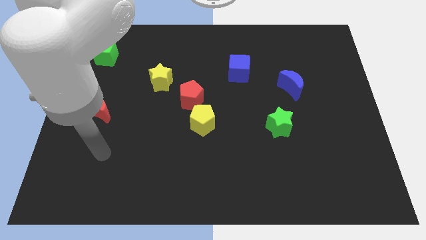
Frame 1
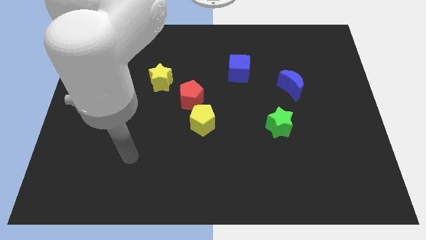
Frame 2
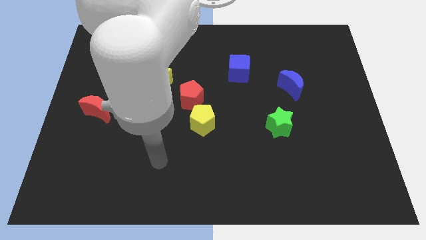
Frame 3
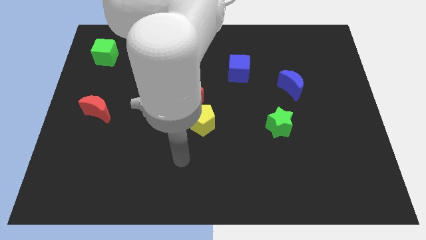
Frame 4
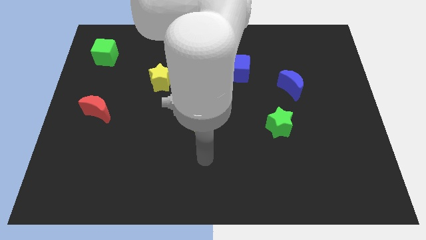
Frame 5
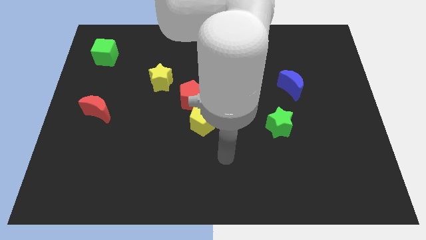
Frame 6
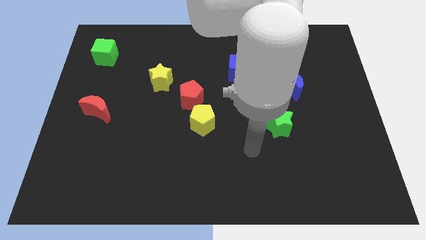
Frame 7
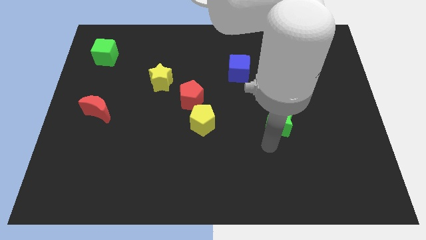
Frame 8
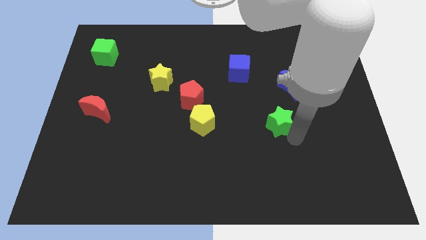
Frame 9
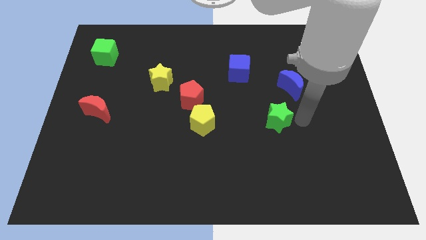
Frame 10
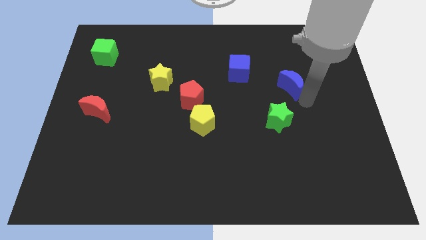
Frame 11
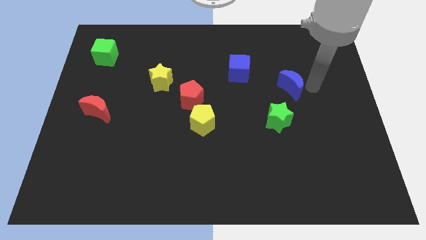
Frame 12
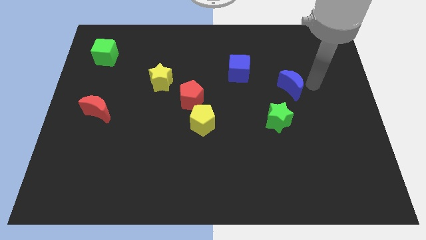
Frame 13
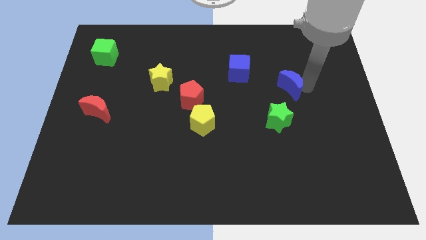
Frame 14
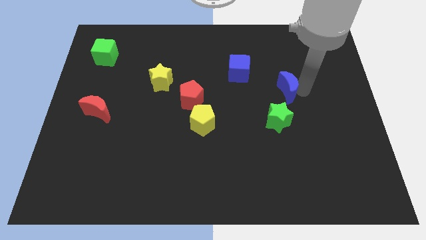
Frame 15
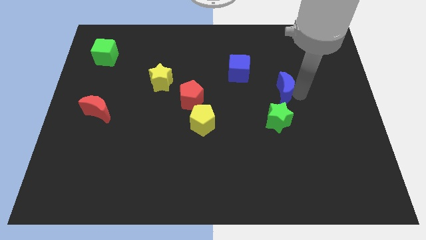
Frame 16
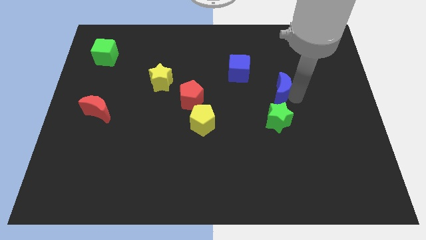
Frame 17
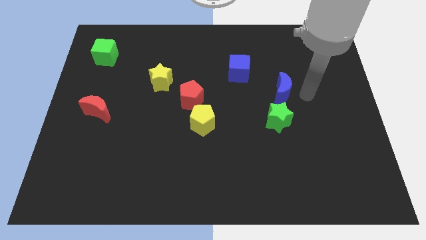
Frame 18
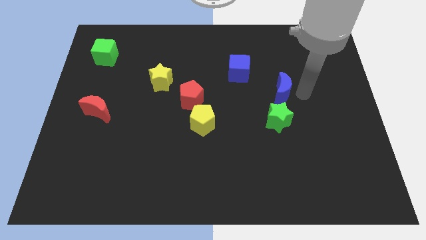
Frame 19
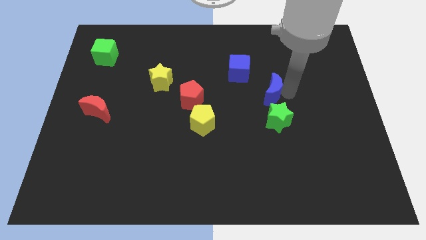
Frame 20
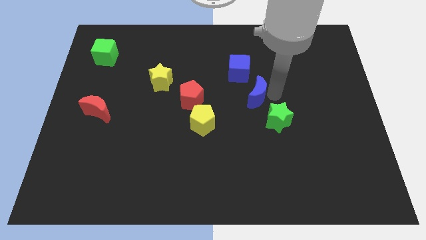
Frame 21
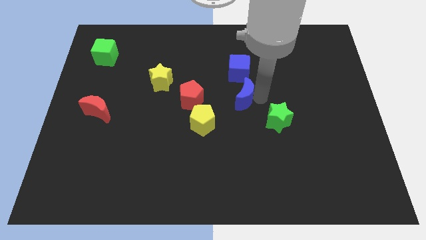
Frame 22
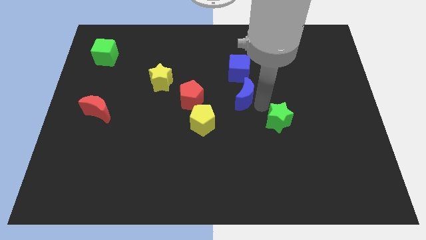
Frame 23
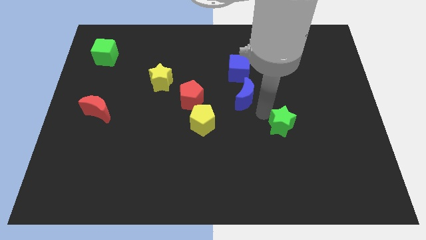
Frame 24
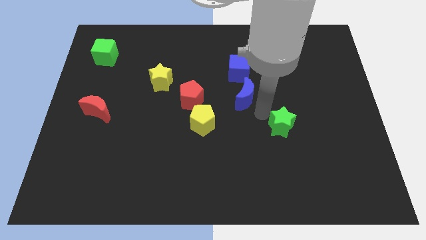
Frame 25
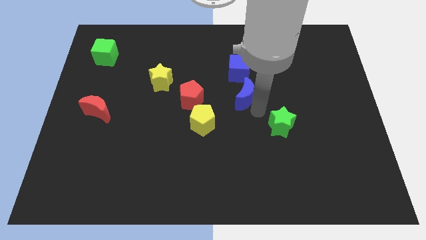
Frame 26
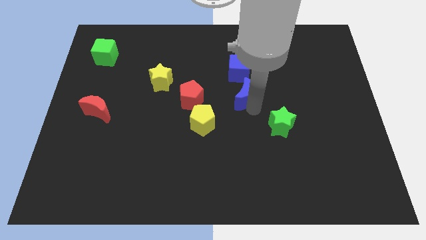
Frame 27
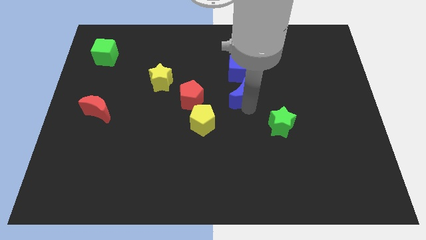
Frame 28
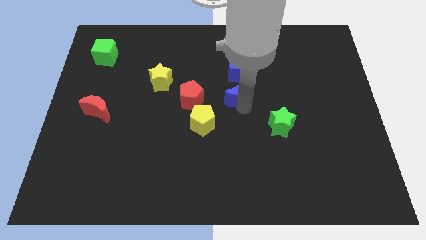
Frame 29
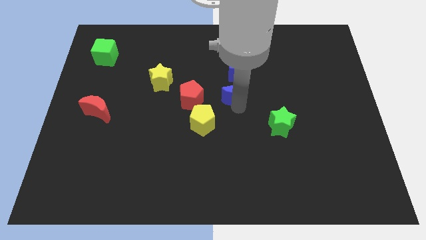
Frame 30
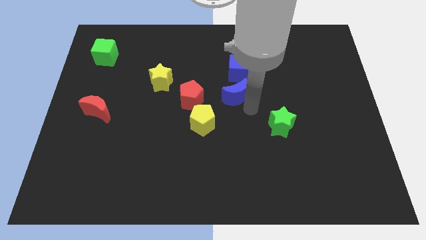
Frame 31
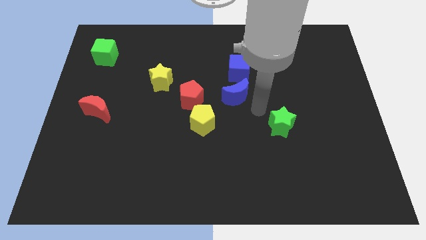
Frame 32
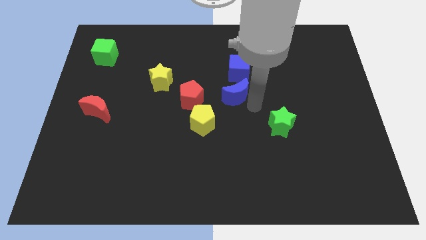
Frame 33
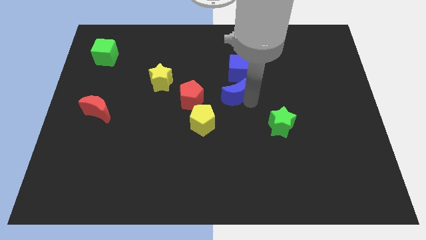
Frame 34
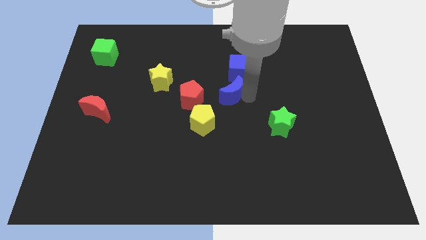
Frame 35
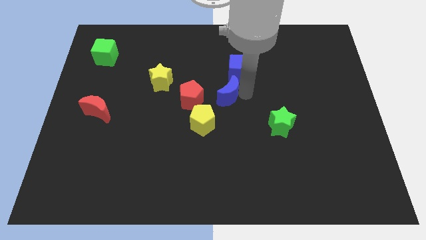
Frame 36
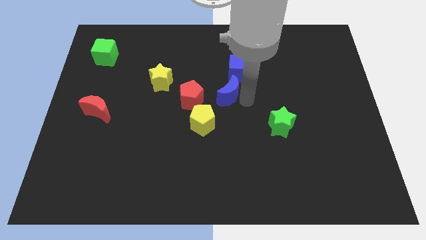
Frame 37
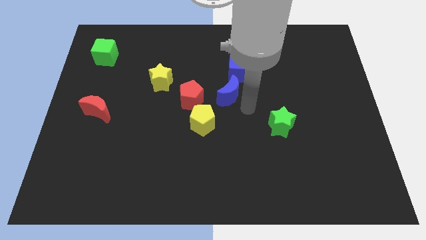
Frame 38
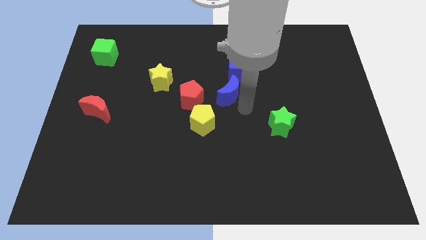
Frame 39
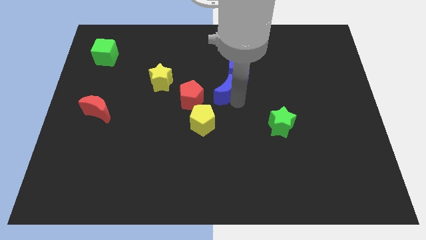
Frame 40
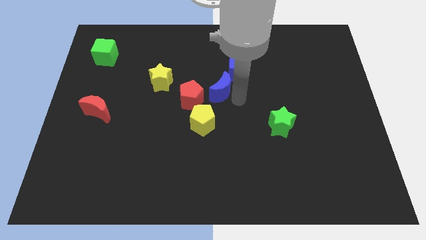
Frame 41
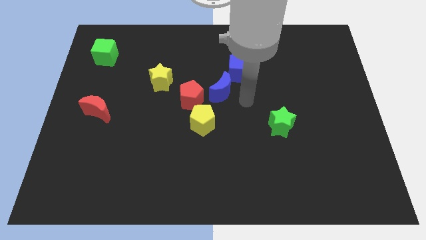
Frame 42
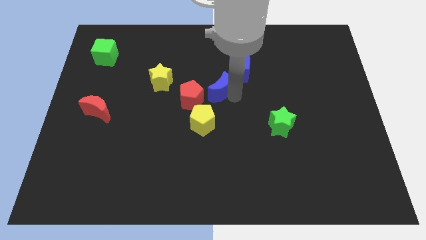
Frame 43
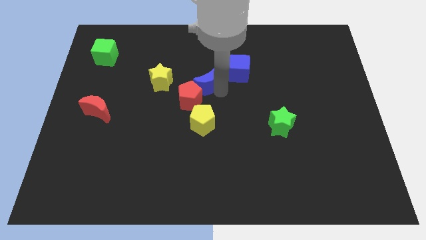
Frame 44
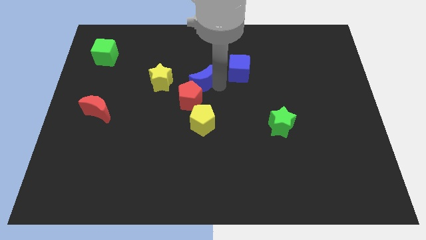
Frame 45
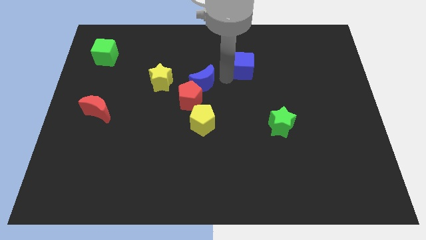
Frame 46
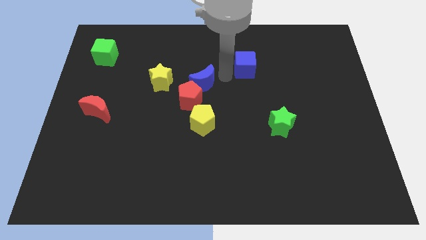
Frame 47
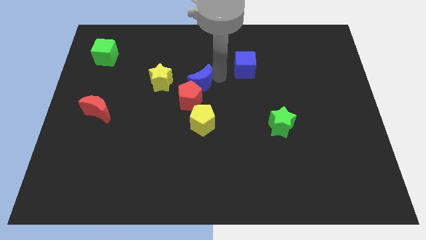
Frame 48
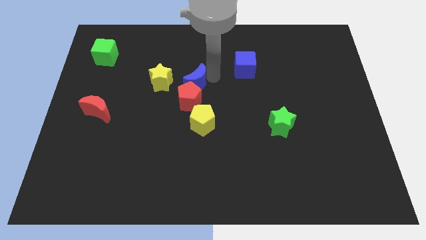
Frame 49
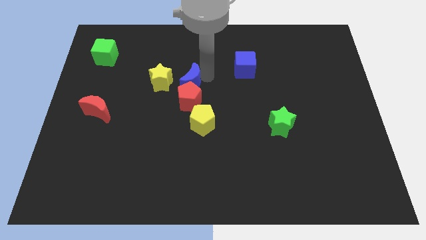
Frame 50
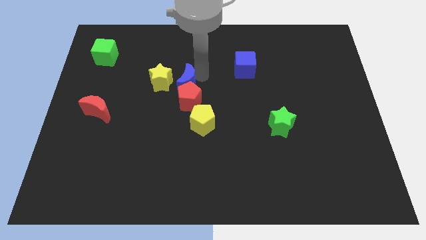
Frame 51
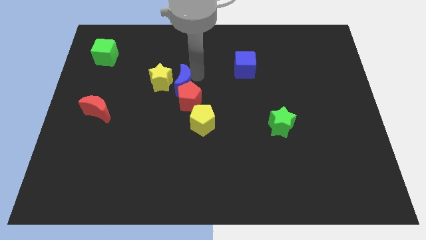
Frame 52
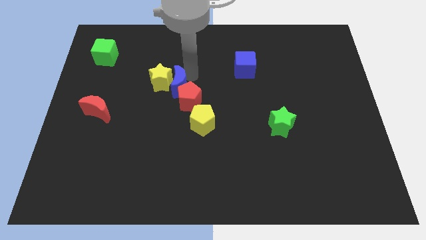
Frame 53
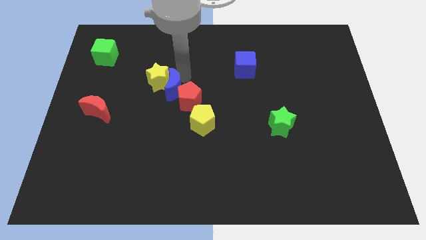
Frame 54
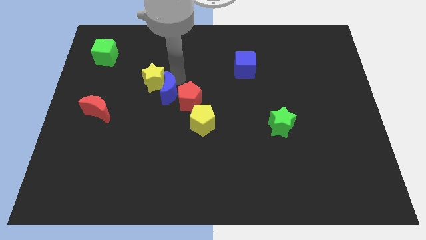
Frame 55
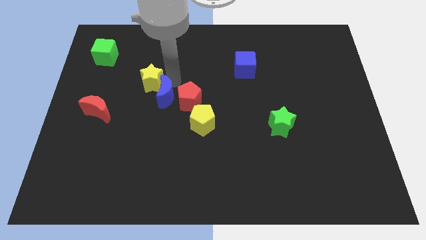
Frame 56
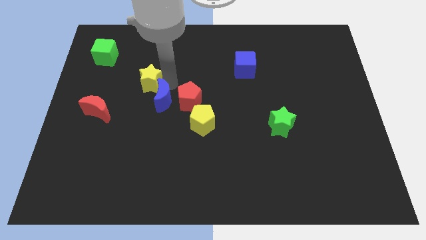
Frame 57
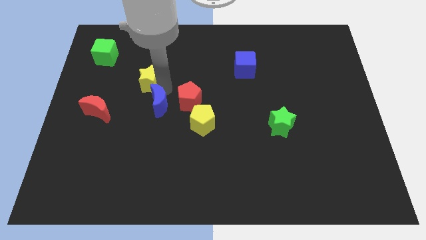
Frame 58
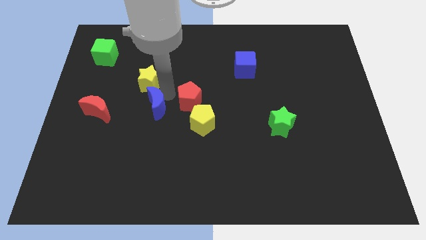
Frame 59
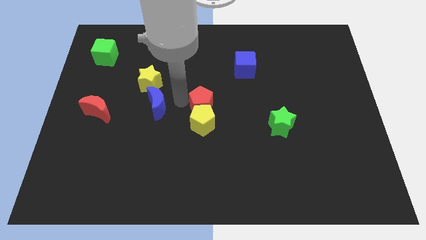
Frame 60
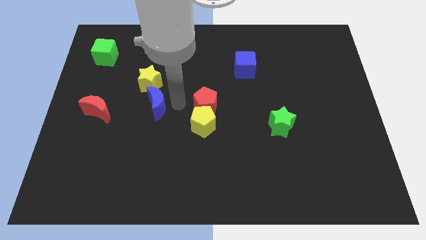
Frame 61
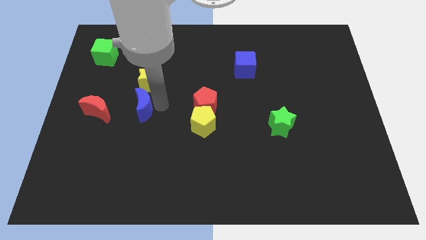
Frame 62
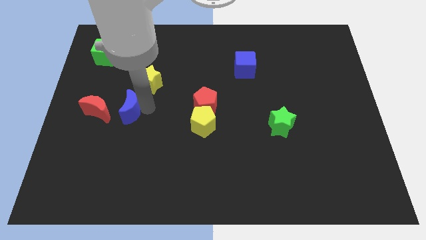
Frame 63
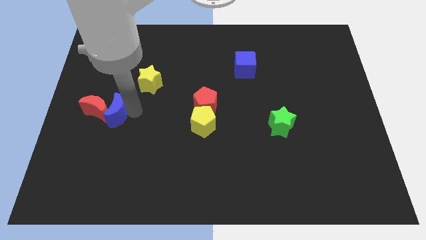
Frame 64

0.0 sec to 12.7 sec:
slide the blue moon to the red moon

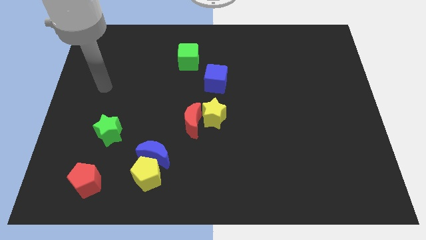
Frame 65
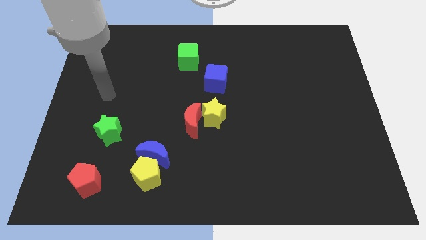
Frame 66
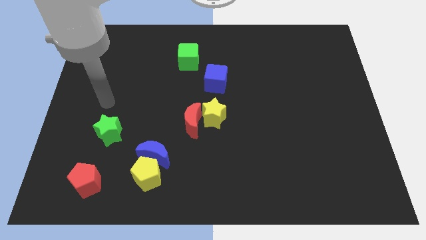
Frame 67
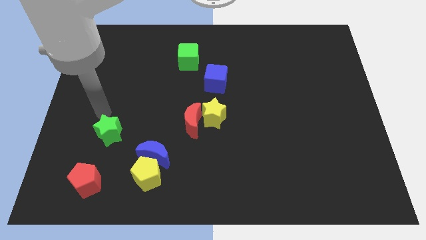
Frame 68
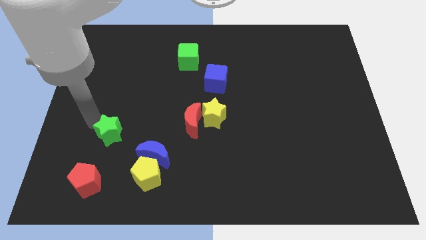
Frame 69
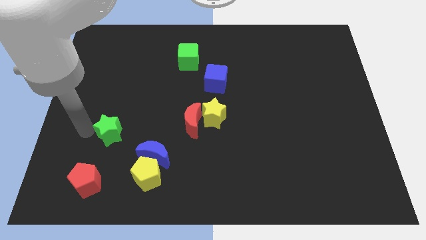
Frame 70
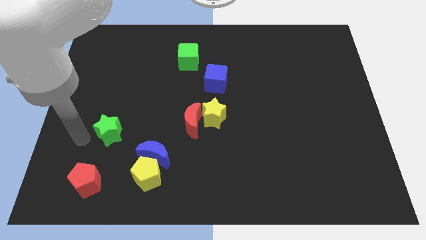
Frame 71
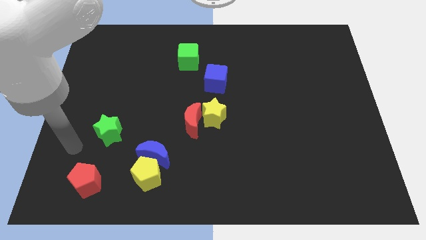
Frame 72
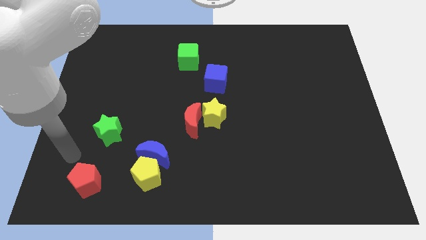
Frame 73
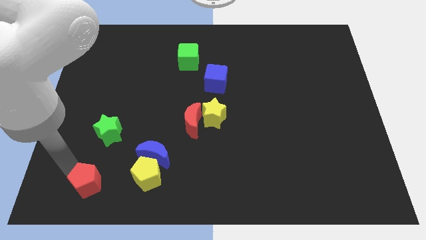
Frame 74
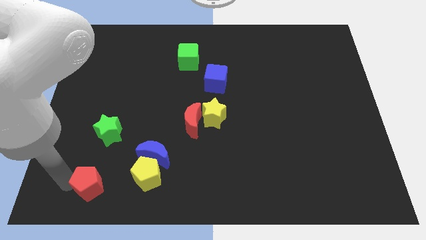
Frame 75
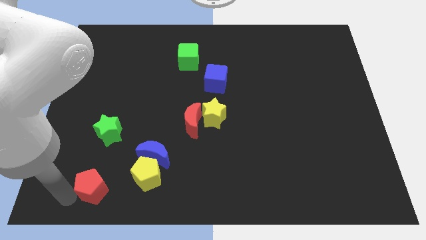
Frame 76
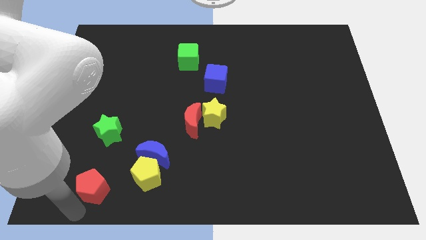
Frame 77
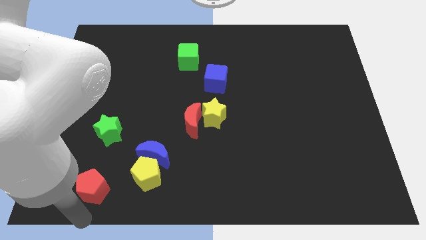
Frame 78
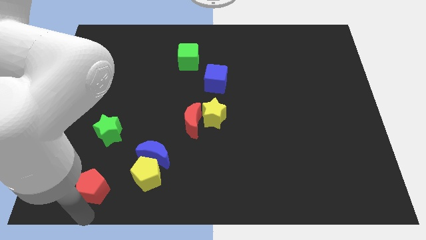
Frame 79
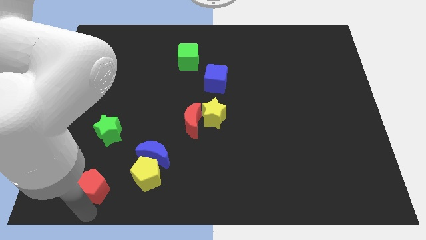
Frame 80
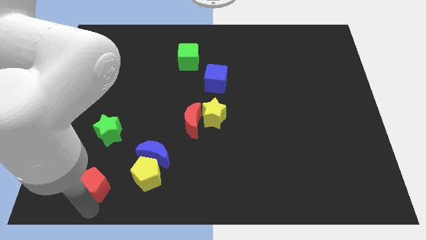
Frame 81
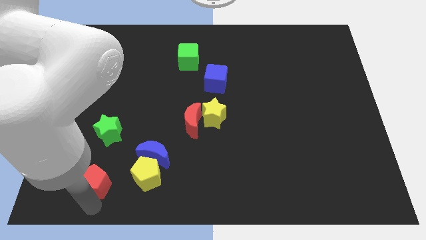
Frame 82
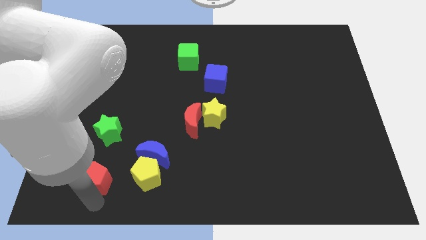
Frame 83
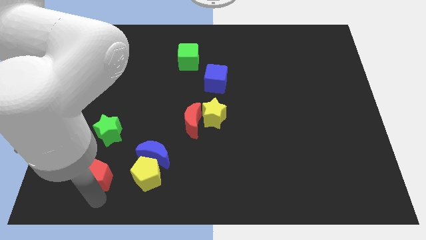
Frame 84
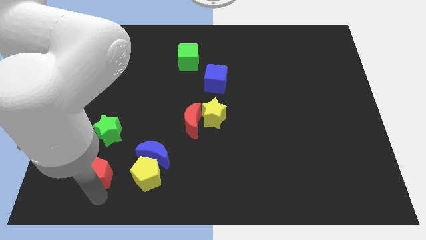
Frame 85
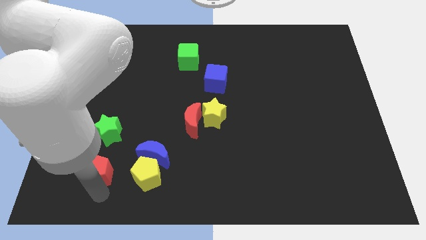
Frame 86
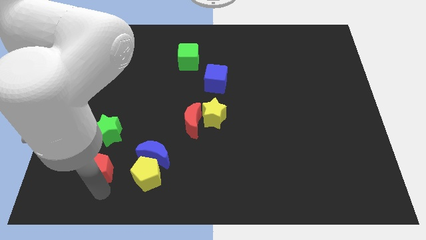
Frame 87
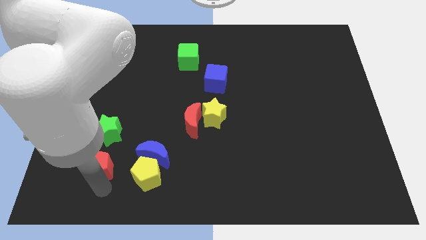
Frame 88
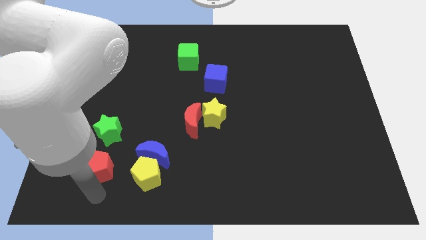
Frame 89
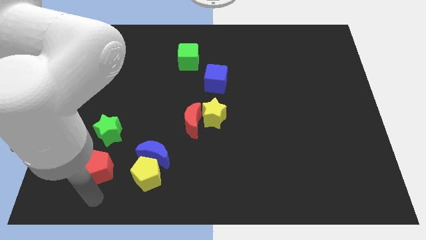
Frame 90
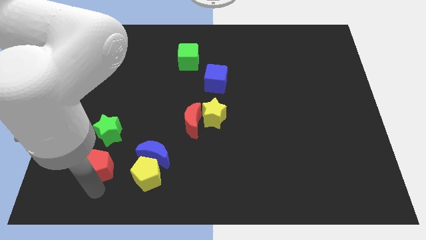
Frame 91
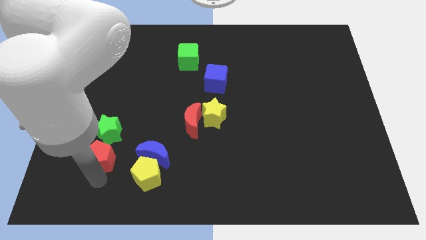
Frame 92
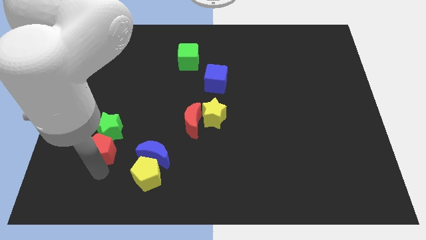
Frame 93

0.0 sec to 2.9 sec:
slide the red pentagon to the green star
